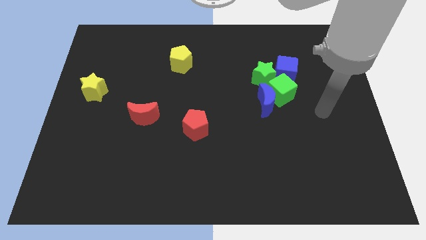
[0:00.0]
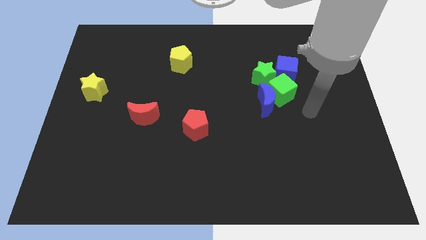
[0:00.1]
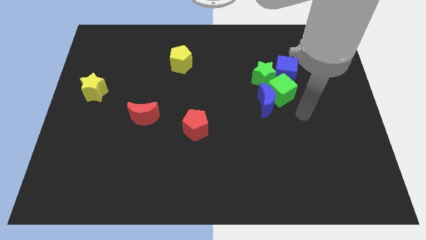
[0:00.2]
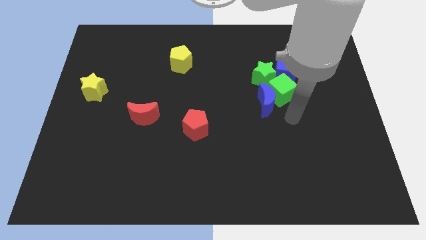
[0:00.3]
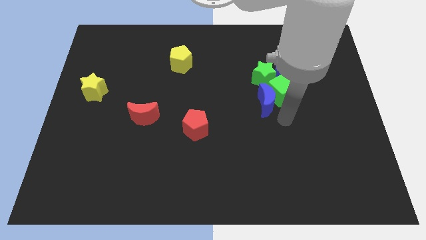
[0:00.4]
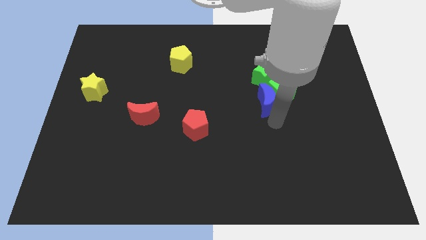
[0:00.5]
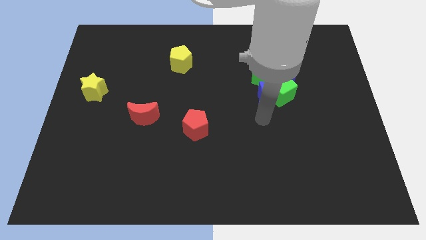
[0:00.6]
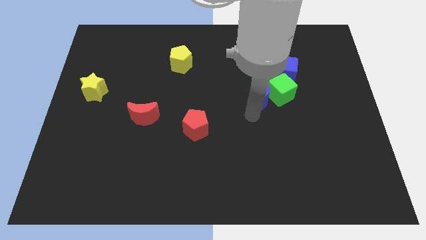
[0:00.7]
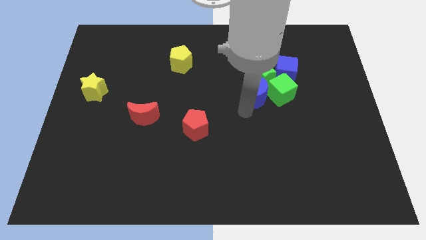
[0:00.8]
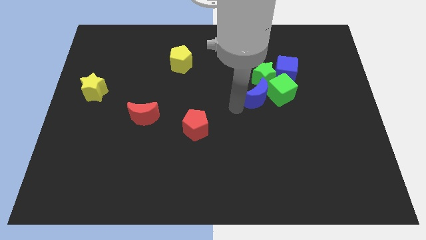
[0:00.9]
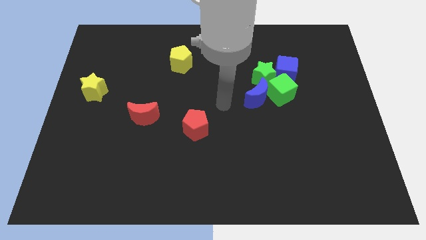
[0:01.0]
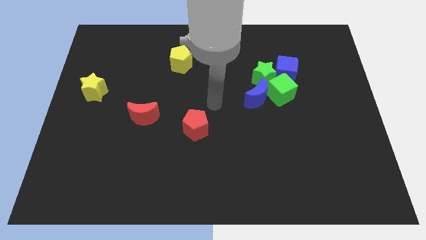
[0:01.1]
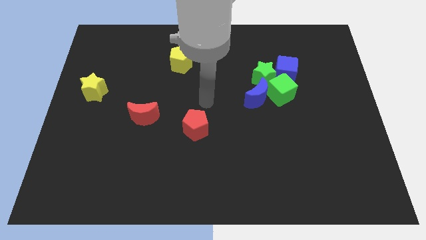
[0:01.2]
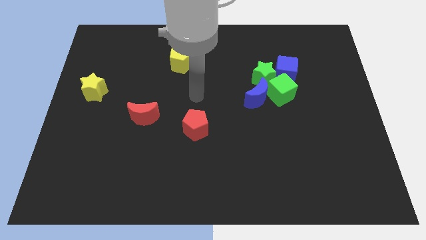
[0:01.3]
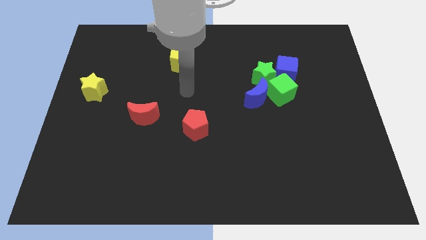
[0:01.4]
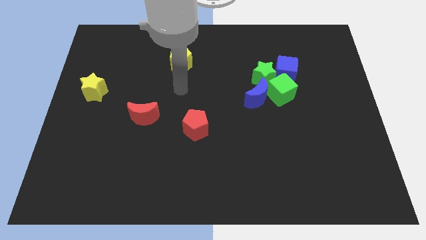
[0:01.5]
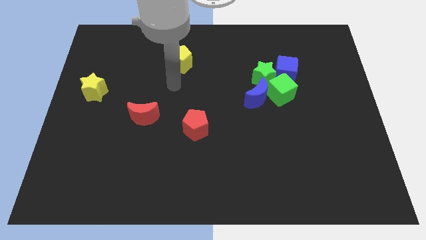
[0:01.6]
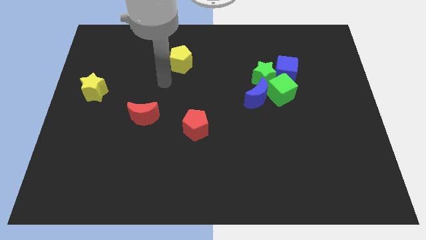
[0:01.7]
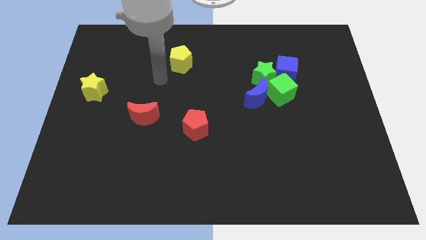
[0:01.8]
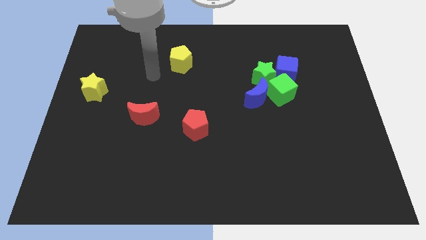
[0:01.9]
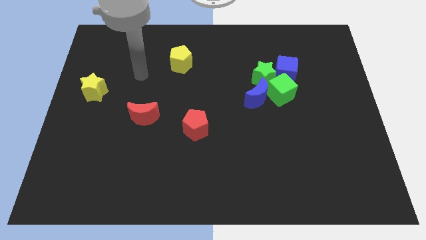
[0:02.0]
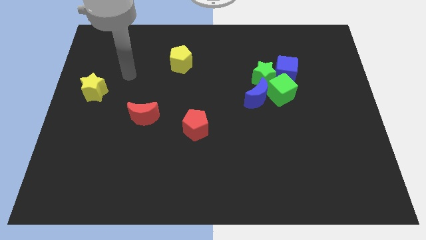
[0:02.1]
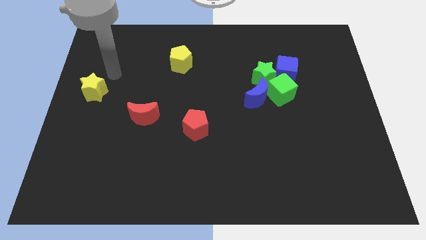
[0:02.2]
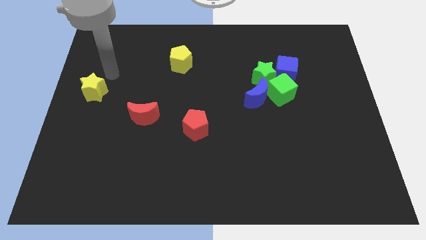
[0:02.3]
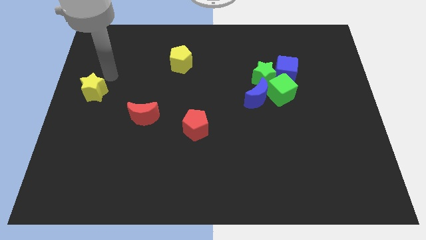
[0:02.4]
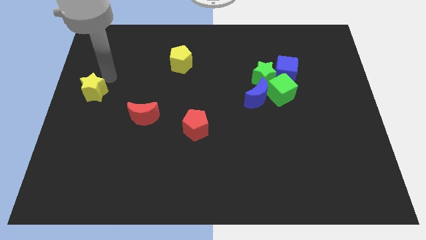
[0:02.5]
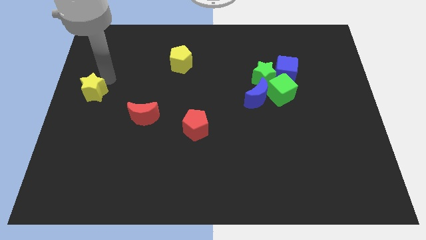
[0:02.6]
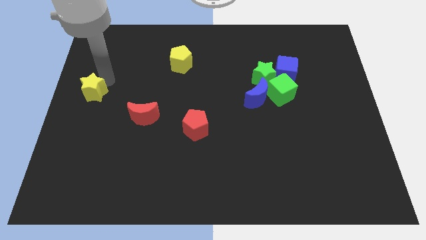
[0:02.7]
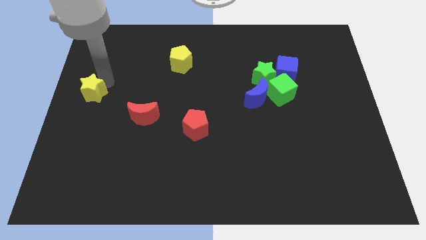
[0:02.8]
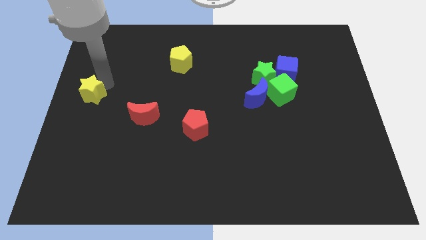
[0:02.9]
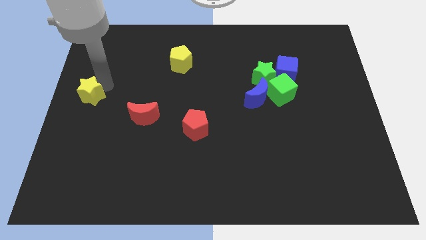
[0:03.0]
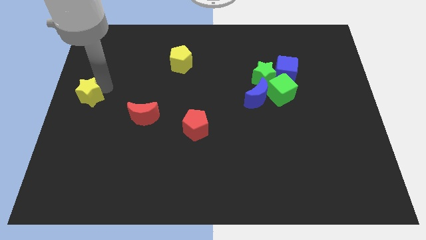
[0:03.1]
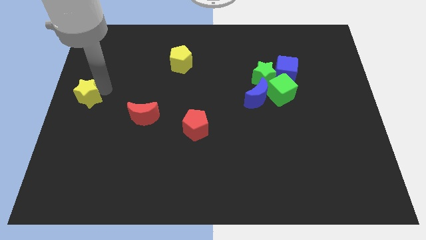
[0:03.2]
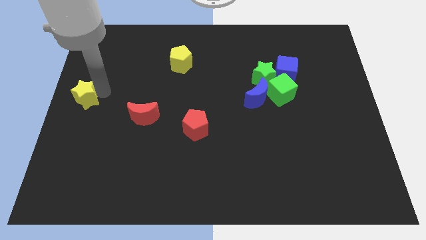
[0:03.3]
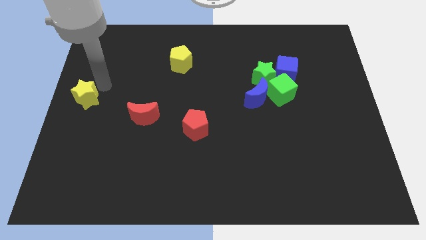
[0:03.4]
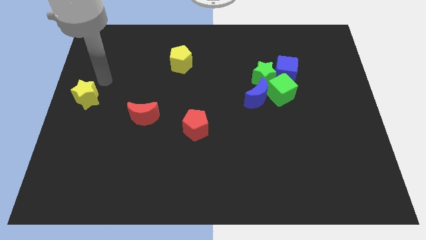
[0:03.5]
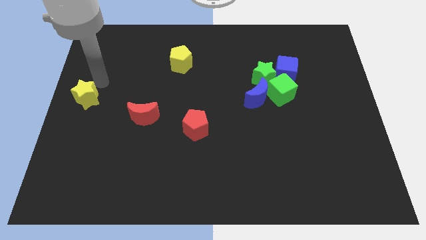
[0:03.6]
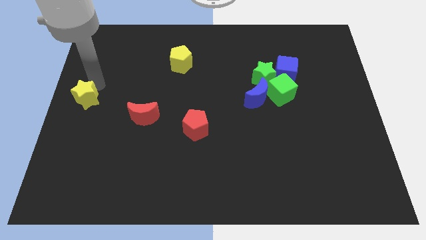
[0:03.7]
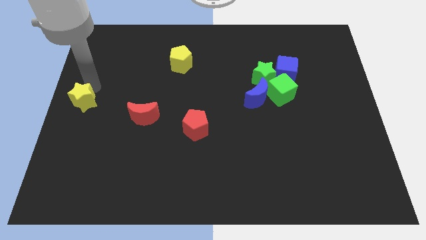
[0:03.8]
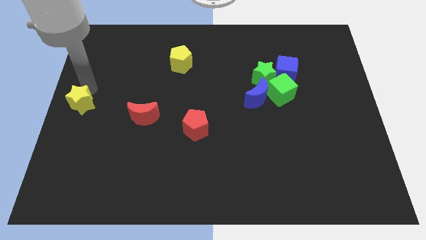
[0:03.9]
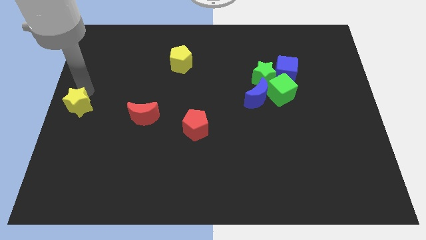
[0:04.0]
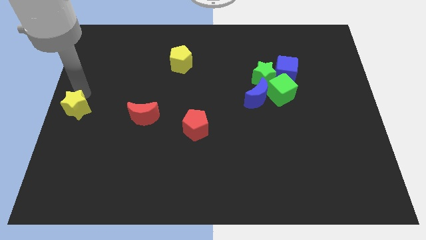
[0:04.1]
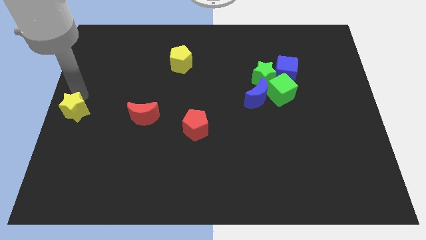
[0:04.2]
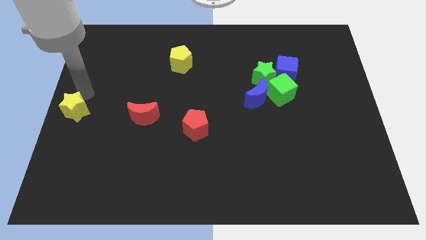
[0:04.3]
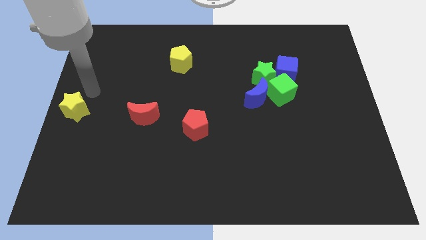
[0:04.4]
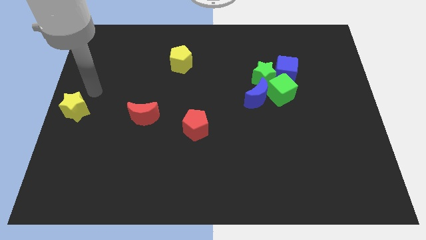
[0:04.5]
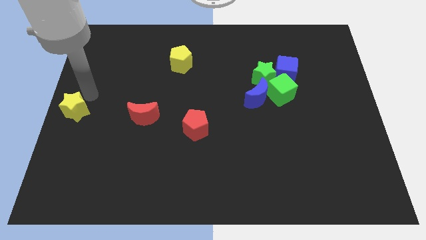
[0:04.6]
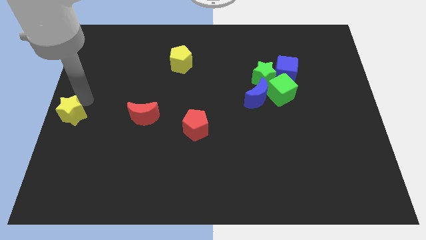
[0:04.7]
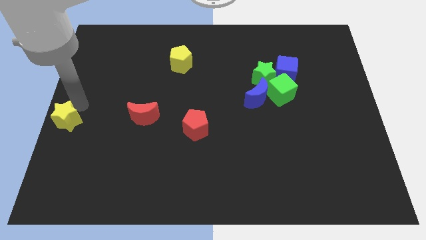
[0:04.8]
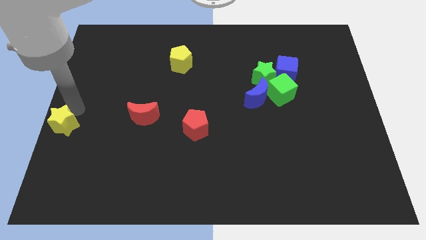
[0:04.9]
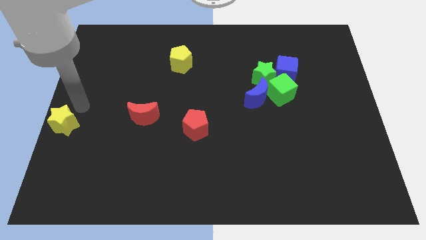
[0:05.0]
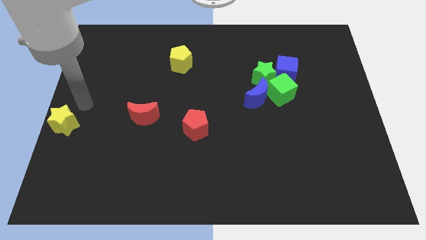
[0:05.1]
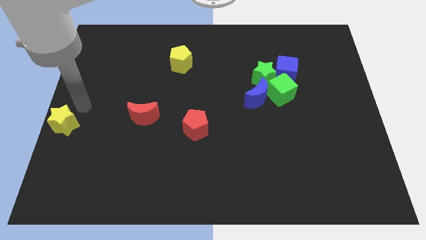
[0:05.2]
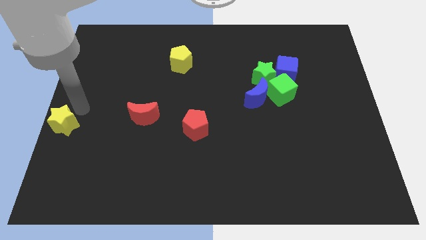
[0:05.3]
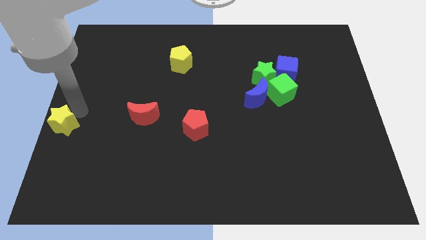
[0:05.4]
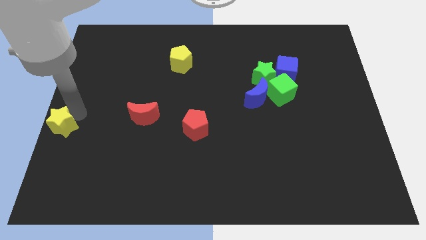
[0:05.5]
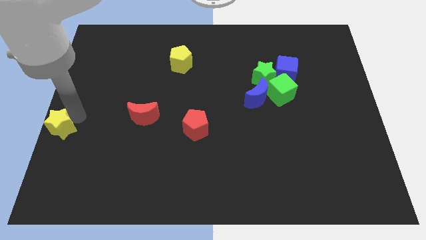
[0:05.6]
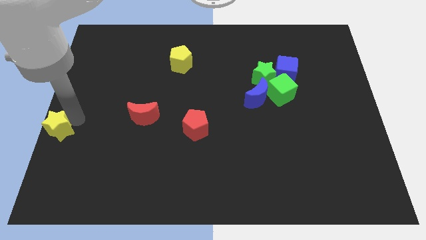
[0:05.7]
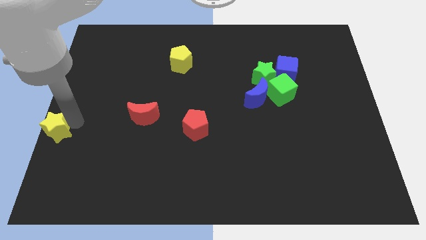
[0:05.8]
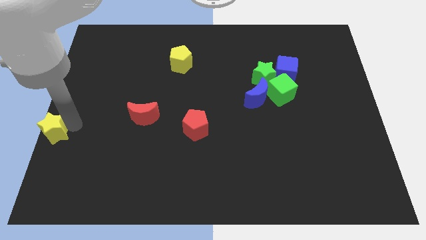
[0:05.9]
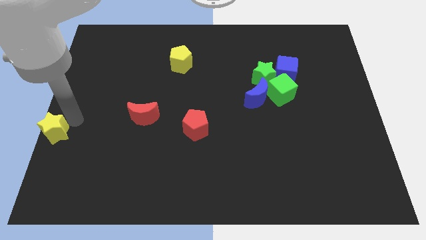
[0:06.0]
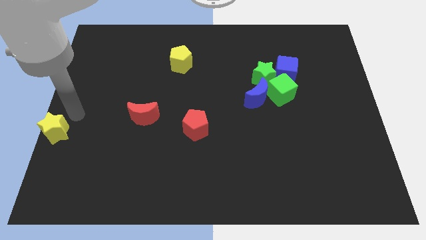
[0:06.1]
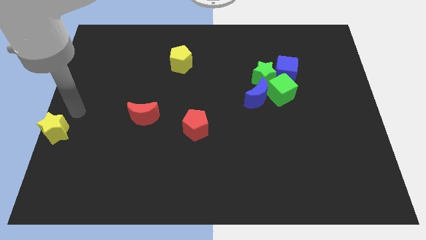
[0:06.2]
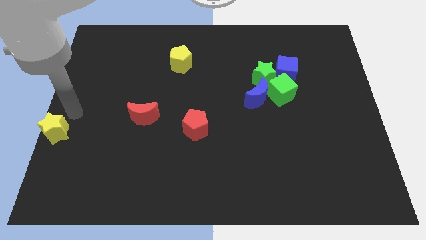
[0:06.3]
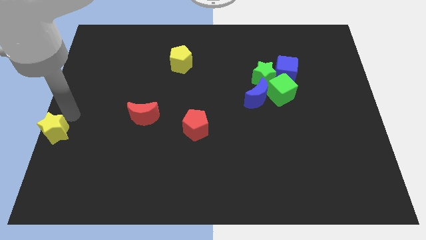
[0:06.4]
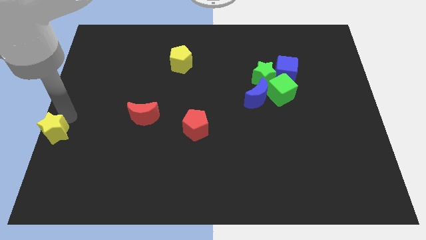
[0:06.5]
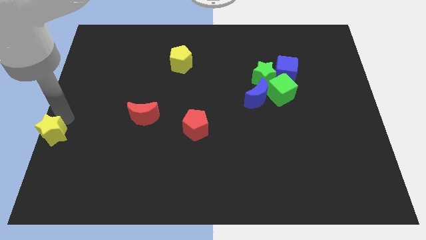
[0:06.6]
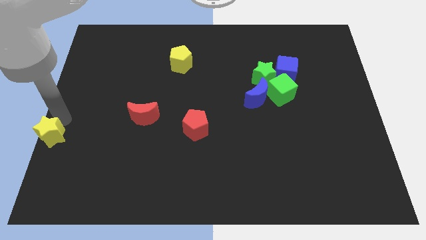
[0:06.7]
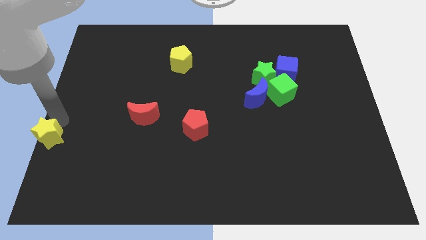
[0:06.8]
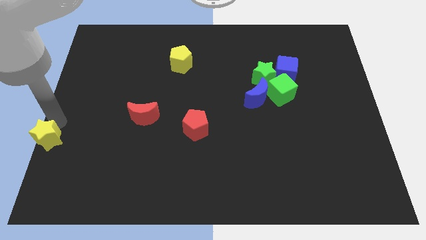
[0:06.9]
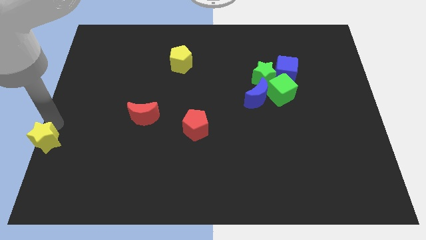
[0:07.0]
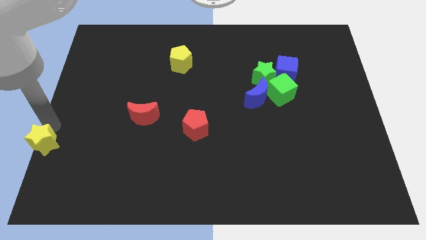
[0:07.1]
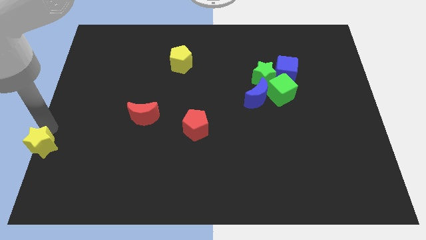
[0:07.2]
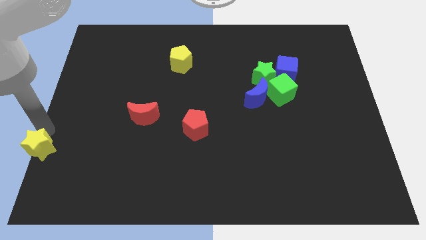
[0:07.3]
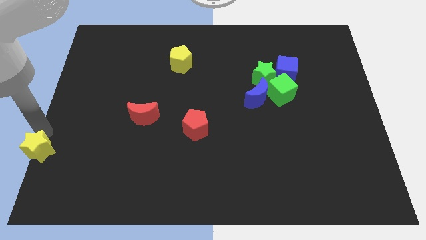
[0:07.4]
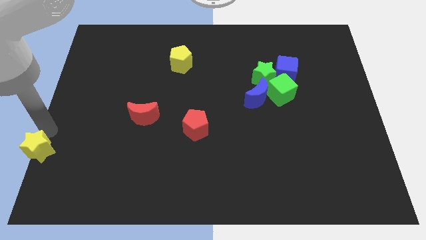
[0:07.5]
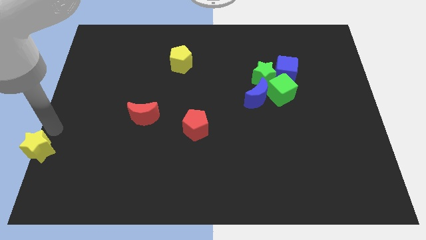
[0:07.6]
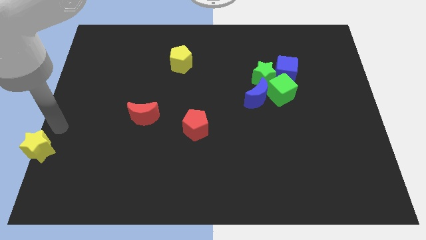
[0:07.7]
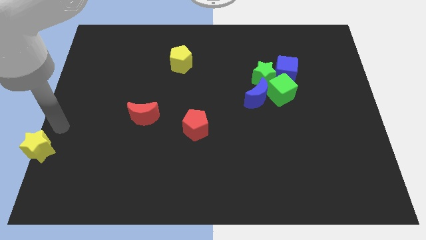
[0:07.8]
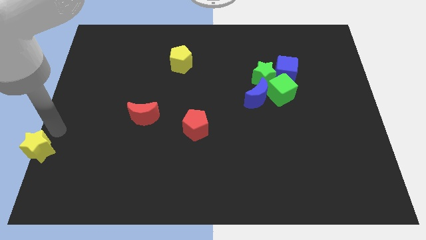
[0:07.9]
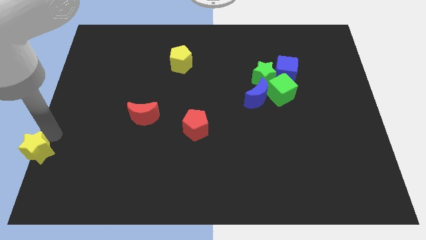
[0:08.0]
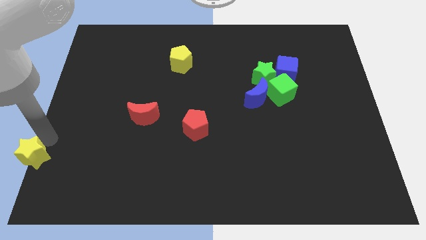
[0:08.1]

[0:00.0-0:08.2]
push the yellow star to the bottom left
